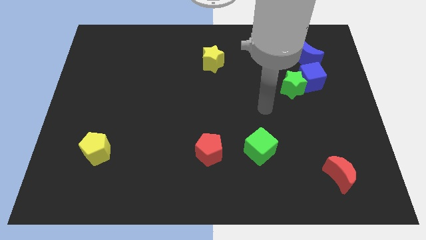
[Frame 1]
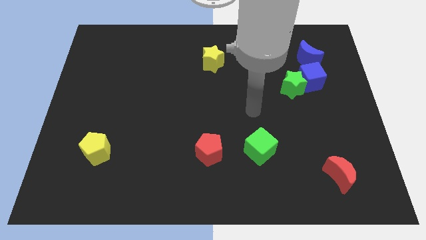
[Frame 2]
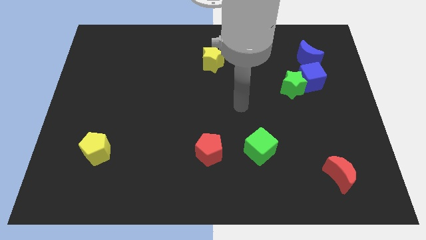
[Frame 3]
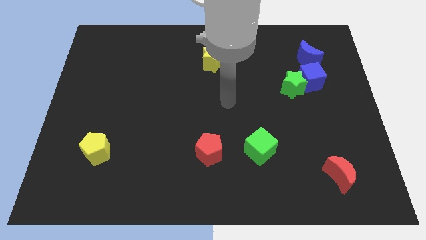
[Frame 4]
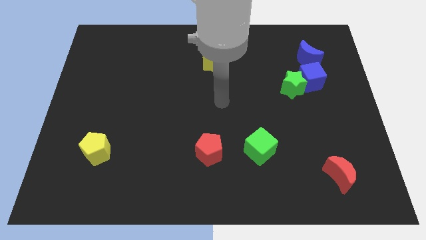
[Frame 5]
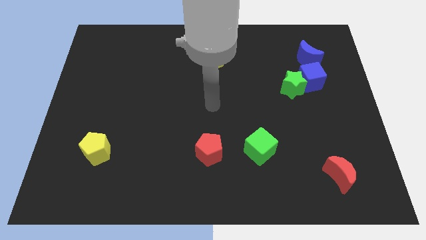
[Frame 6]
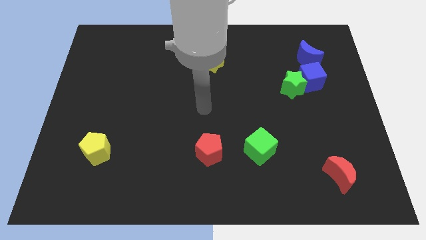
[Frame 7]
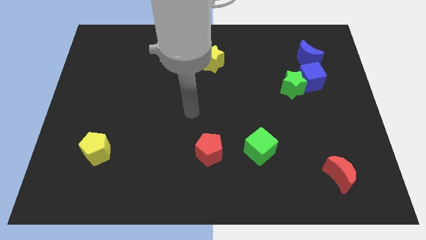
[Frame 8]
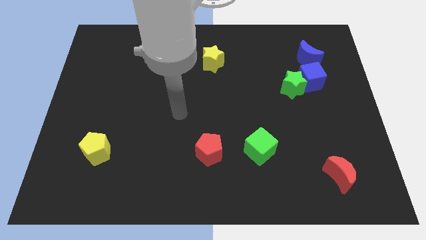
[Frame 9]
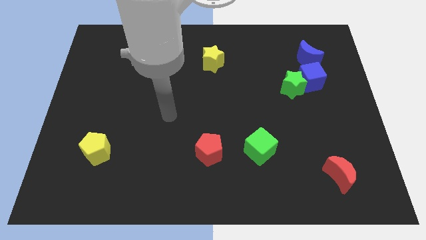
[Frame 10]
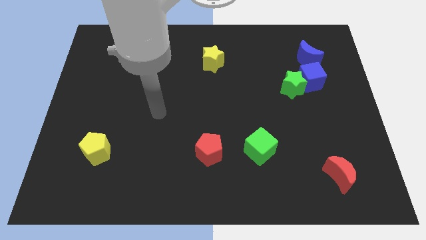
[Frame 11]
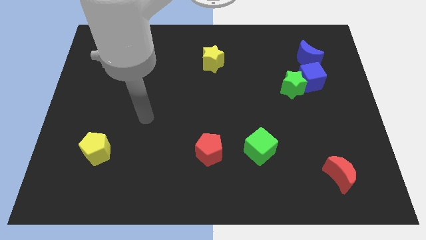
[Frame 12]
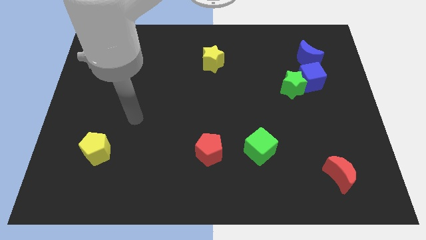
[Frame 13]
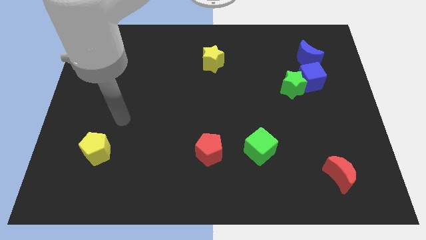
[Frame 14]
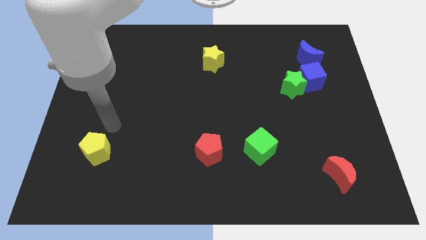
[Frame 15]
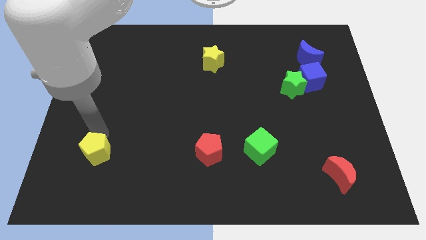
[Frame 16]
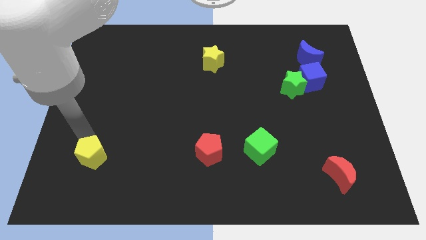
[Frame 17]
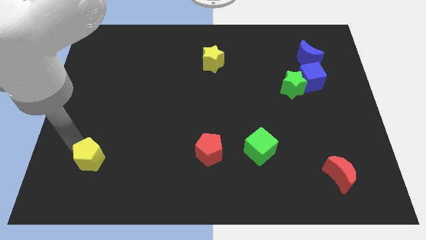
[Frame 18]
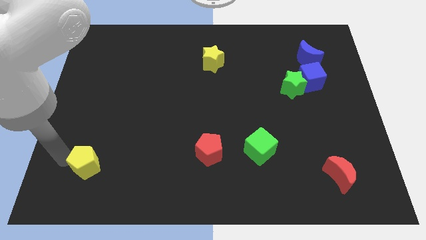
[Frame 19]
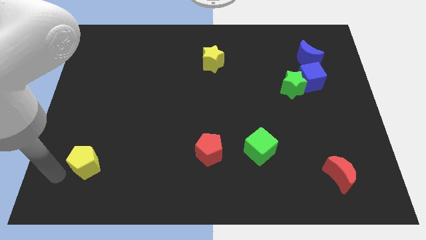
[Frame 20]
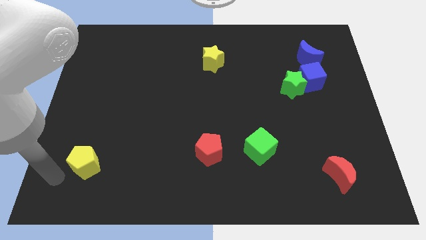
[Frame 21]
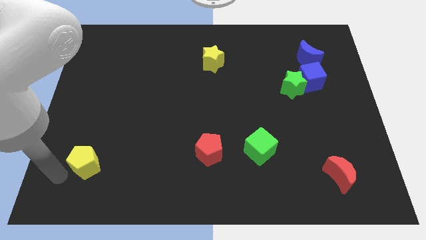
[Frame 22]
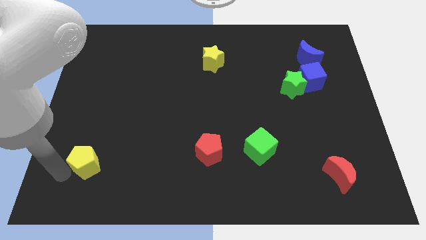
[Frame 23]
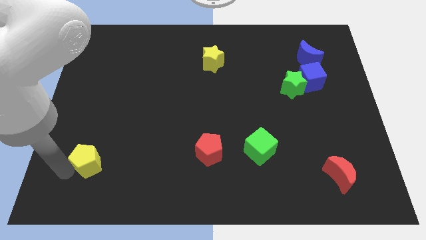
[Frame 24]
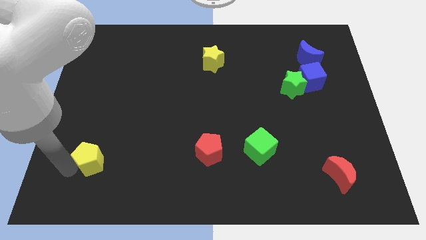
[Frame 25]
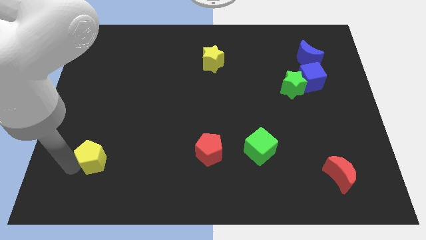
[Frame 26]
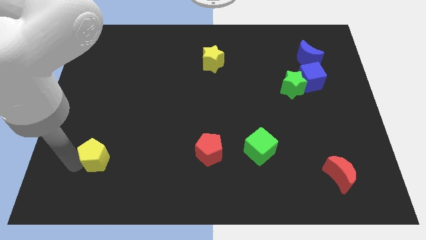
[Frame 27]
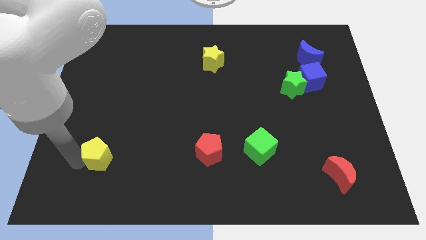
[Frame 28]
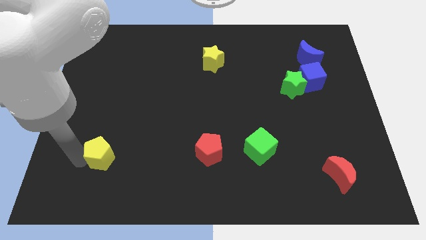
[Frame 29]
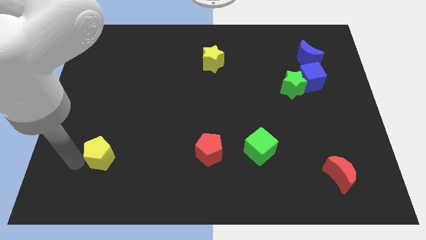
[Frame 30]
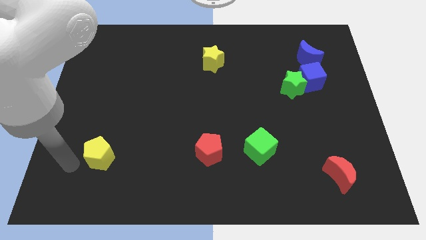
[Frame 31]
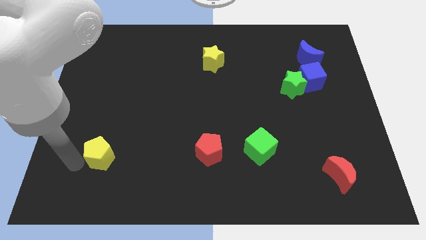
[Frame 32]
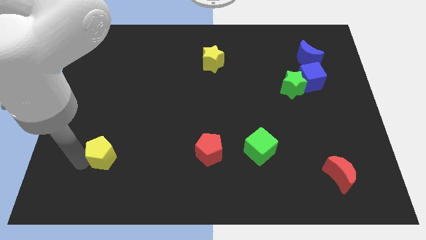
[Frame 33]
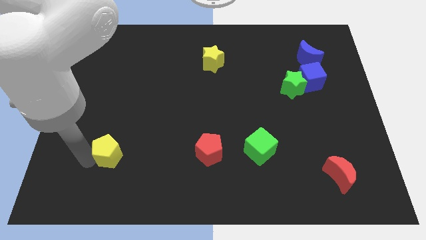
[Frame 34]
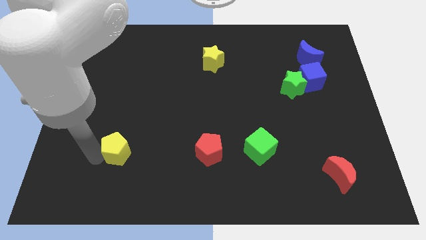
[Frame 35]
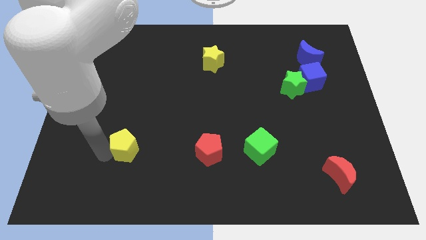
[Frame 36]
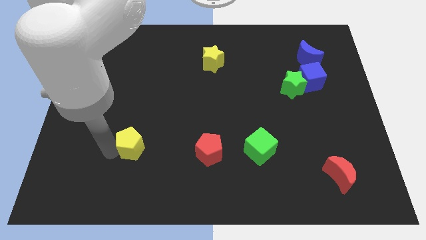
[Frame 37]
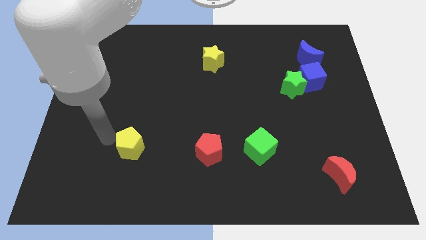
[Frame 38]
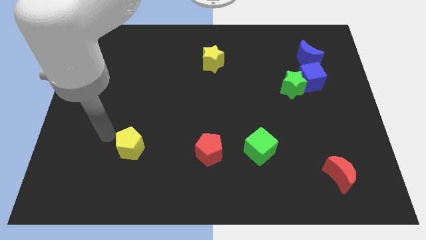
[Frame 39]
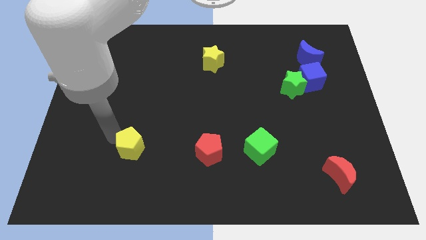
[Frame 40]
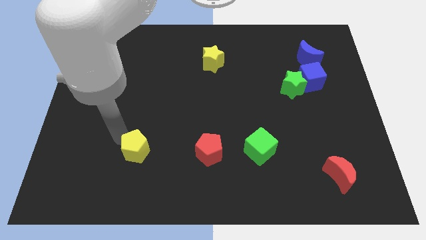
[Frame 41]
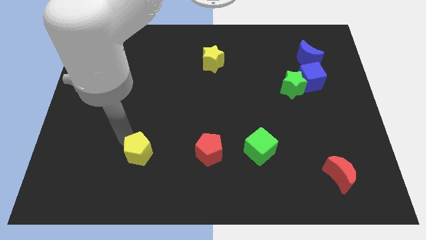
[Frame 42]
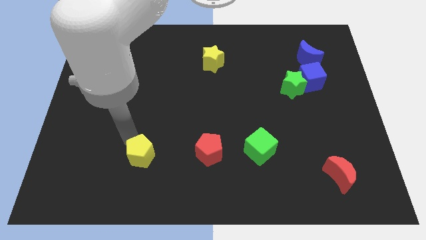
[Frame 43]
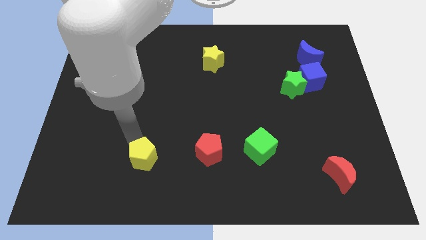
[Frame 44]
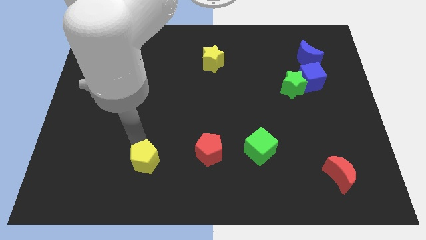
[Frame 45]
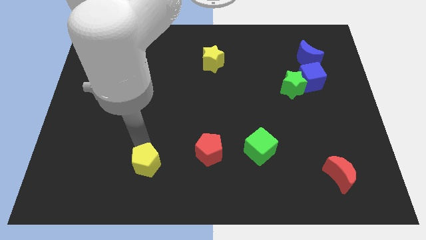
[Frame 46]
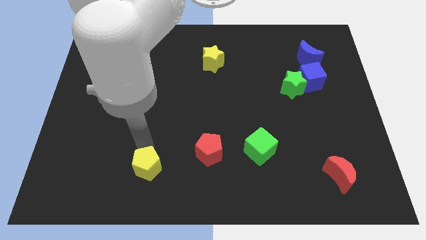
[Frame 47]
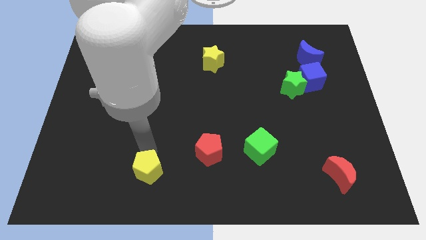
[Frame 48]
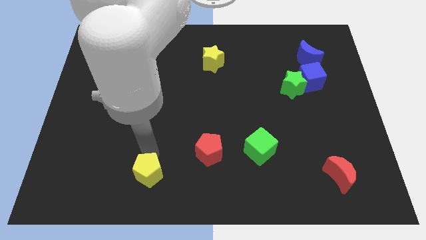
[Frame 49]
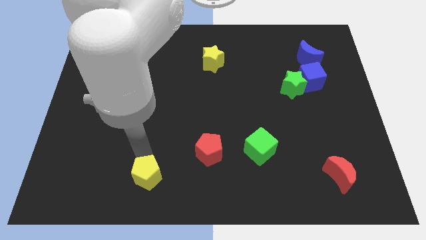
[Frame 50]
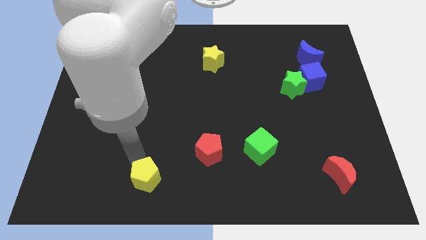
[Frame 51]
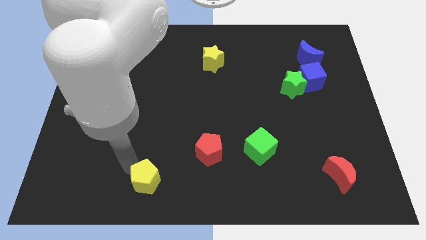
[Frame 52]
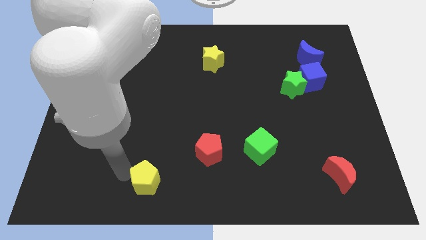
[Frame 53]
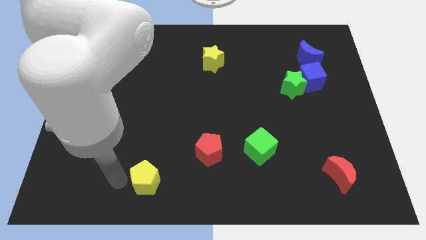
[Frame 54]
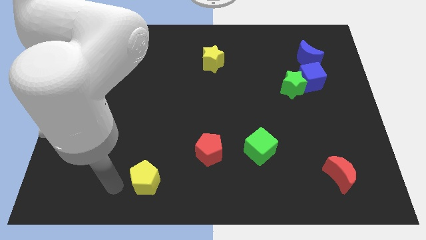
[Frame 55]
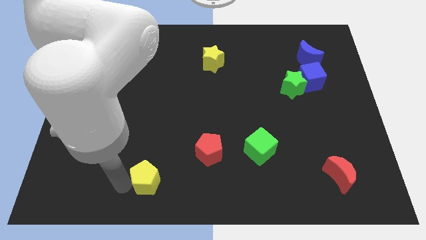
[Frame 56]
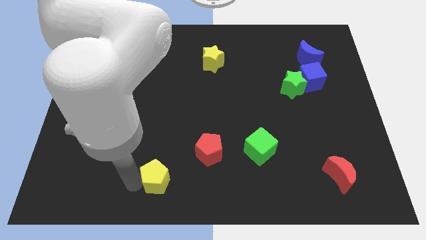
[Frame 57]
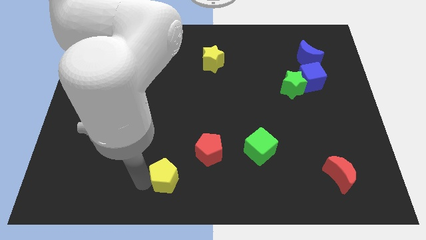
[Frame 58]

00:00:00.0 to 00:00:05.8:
push the yellow pentagon diagonally down and to the left of the red pentagon

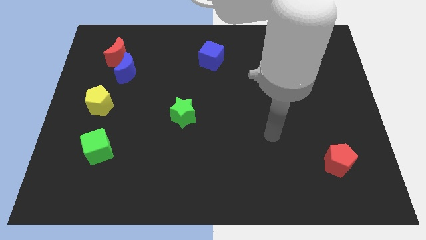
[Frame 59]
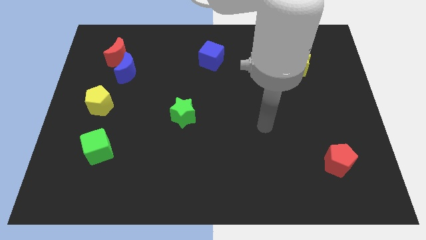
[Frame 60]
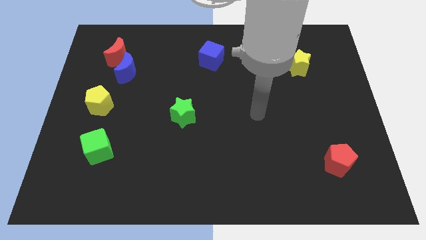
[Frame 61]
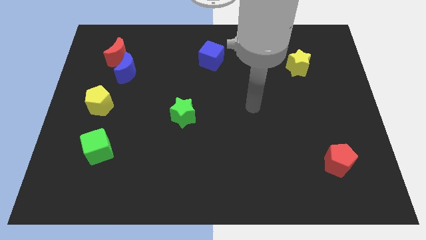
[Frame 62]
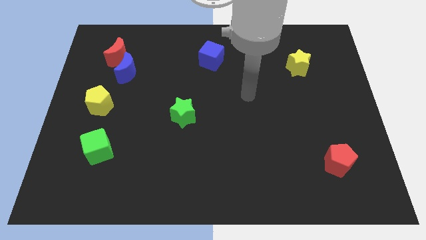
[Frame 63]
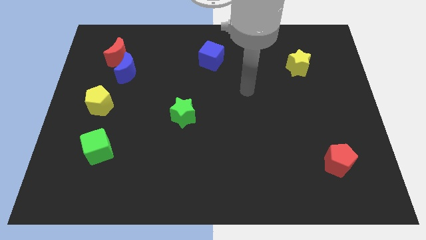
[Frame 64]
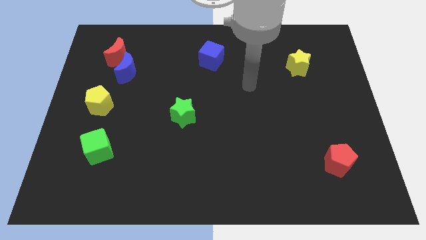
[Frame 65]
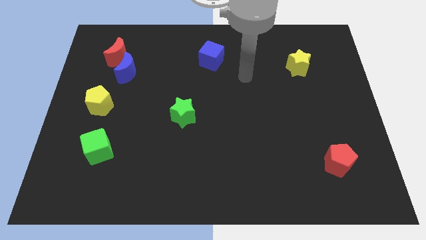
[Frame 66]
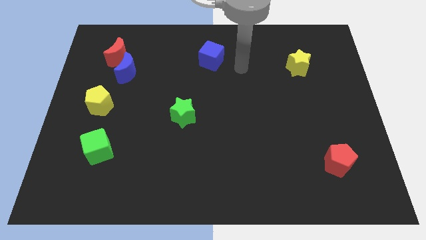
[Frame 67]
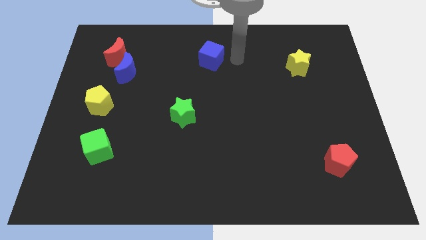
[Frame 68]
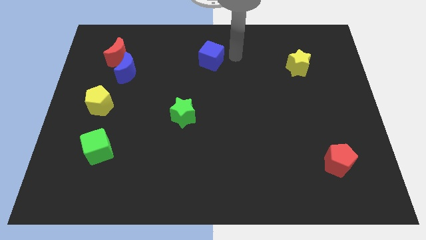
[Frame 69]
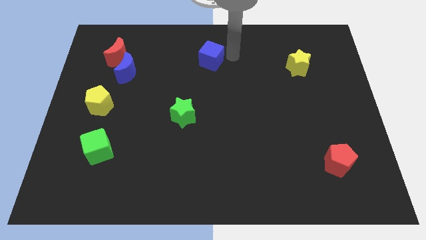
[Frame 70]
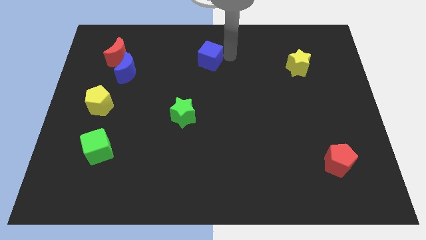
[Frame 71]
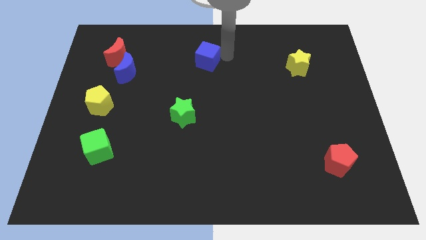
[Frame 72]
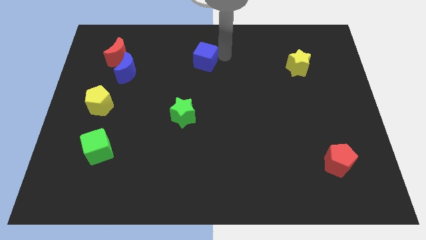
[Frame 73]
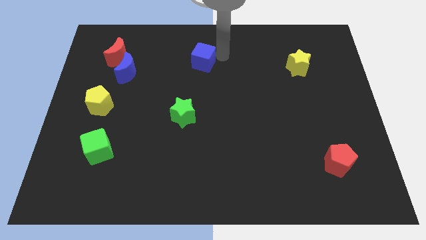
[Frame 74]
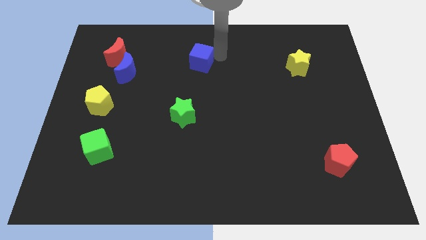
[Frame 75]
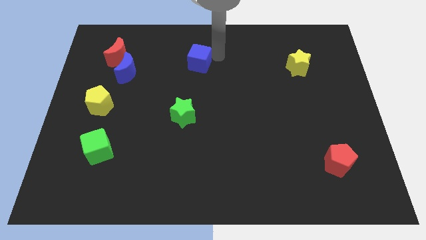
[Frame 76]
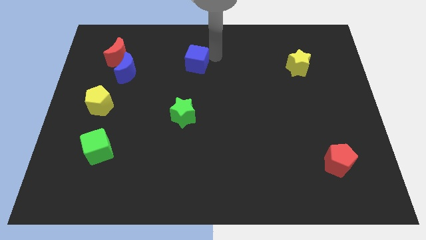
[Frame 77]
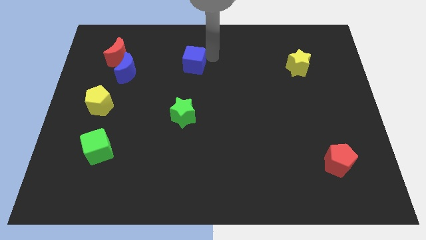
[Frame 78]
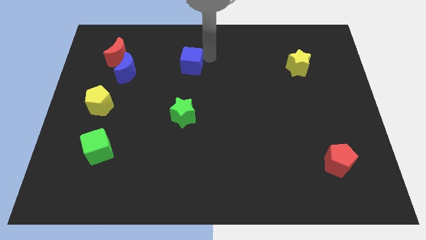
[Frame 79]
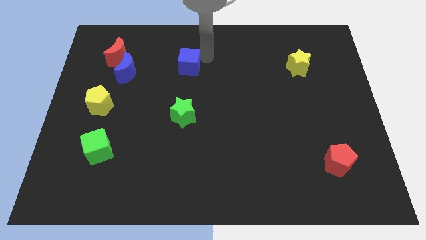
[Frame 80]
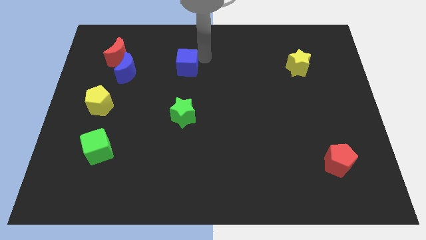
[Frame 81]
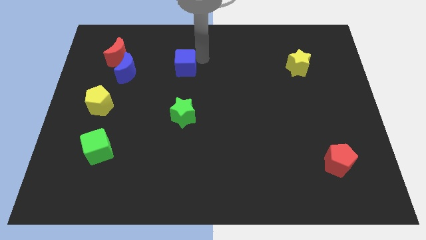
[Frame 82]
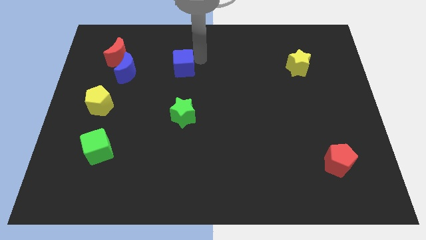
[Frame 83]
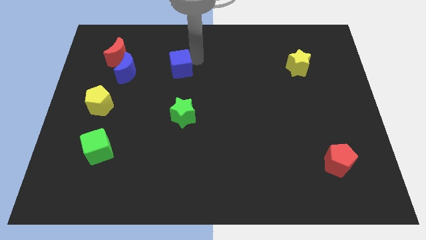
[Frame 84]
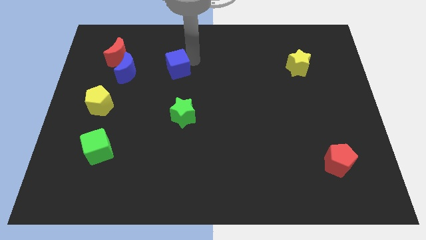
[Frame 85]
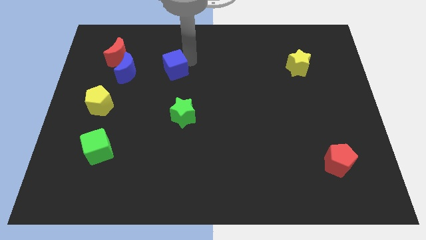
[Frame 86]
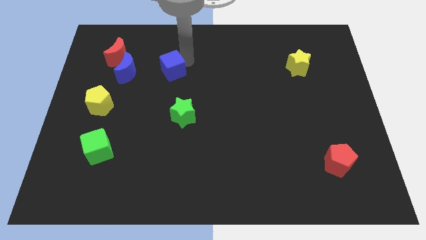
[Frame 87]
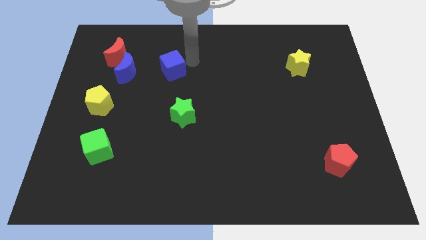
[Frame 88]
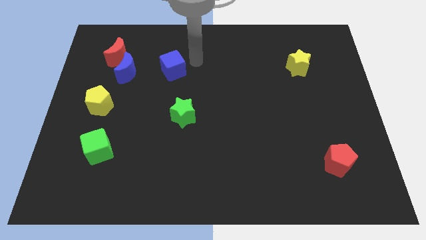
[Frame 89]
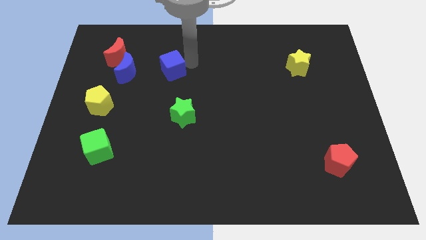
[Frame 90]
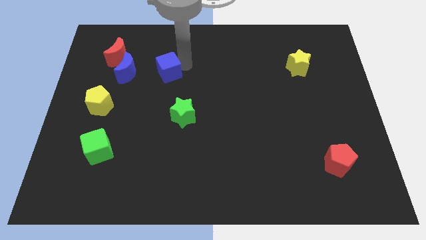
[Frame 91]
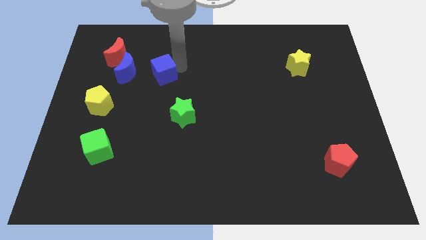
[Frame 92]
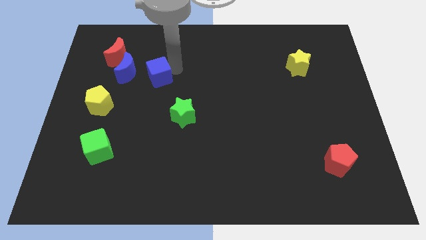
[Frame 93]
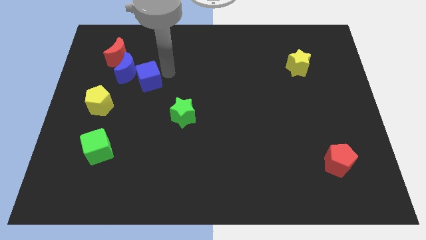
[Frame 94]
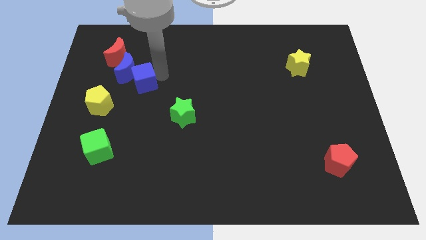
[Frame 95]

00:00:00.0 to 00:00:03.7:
push the blue cube diagonally up and to the right of the yellow pentagon
